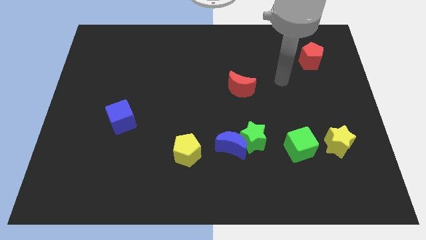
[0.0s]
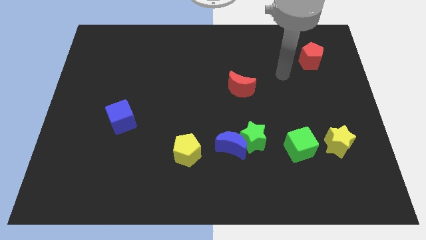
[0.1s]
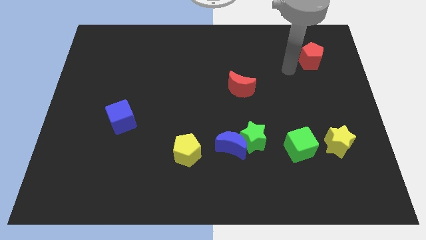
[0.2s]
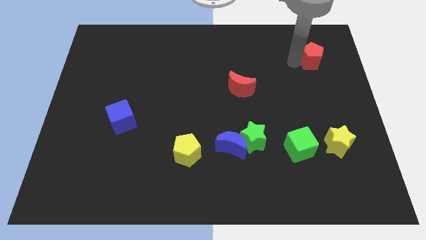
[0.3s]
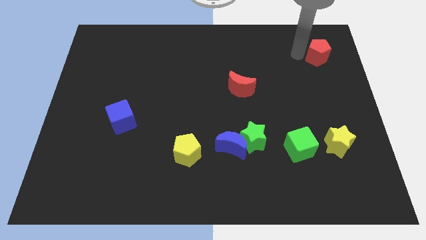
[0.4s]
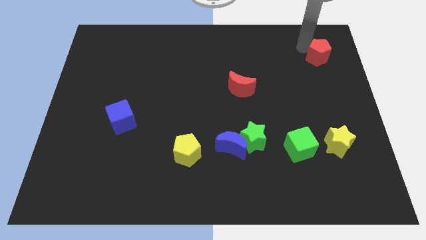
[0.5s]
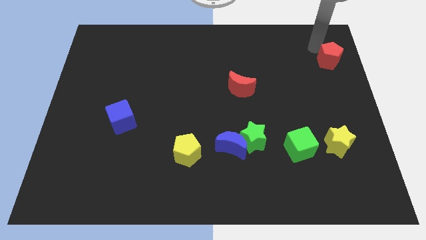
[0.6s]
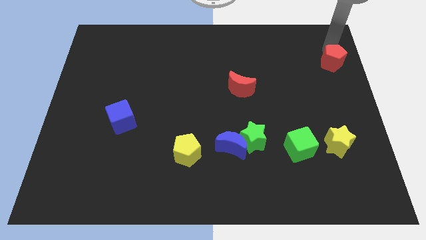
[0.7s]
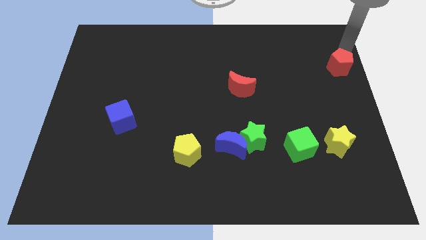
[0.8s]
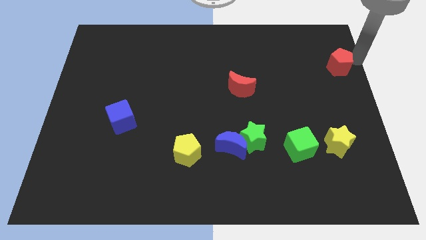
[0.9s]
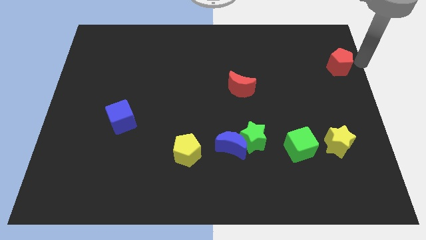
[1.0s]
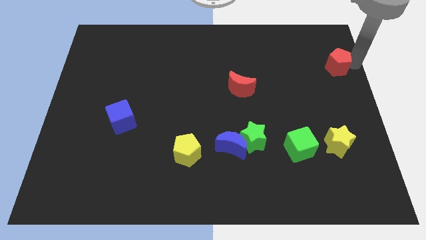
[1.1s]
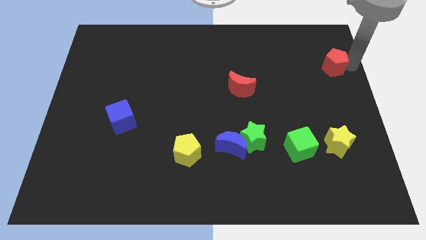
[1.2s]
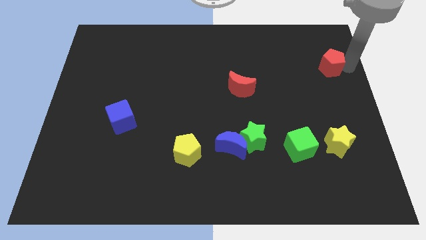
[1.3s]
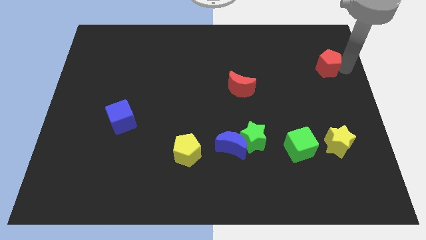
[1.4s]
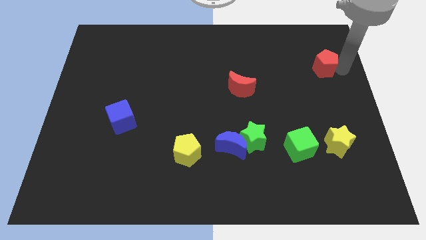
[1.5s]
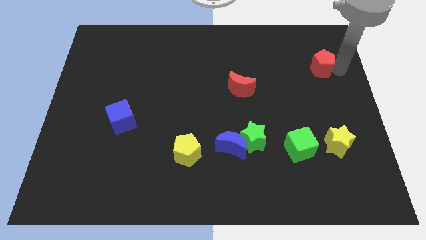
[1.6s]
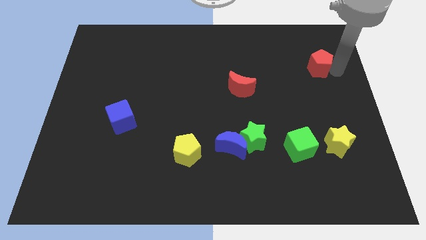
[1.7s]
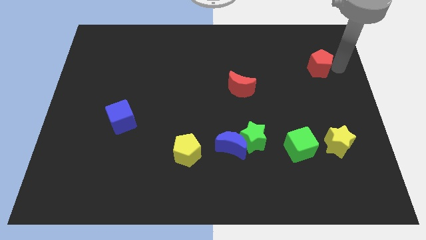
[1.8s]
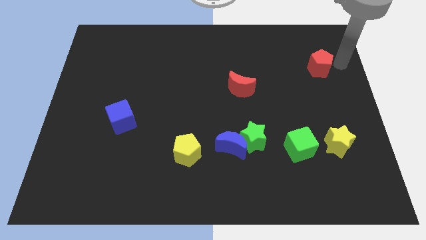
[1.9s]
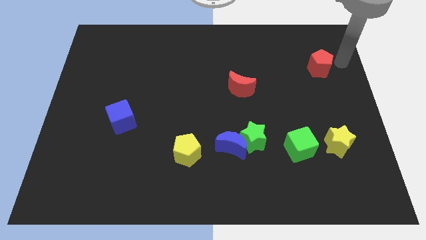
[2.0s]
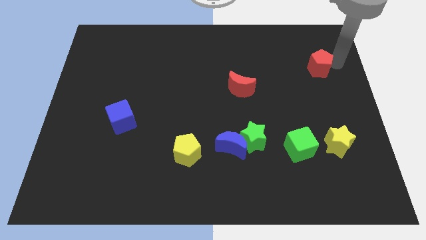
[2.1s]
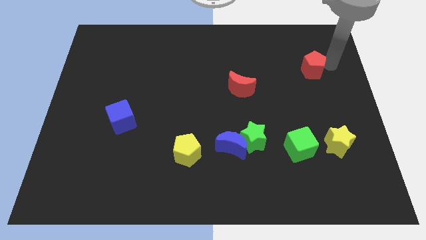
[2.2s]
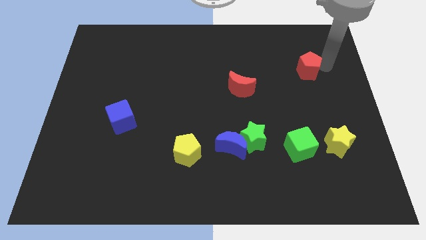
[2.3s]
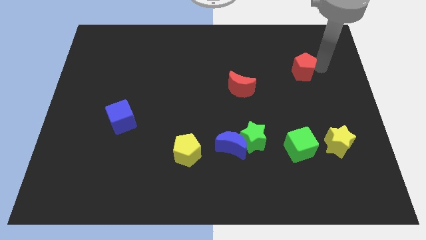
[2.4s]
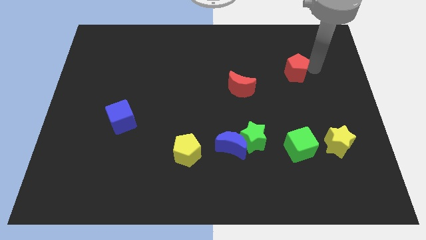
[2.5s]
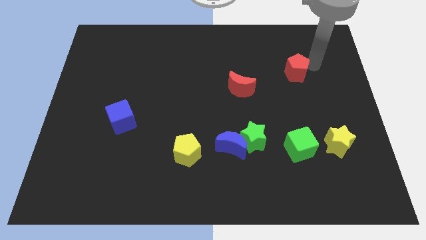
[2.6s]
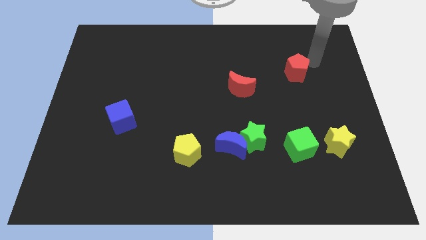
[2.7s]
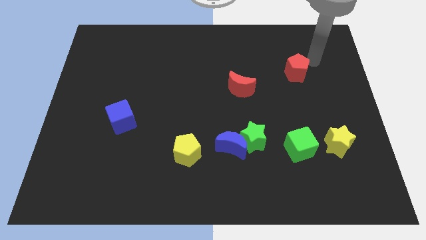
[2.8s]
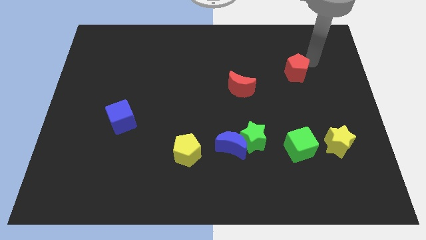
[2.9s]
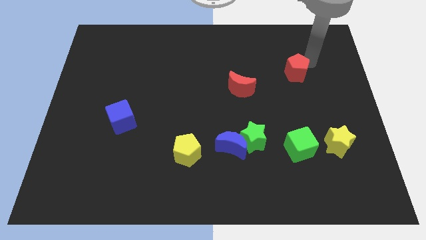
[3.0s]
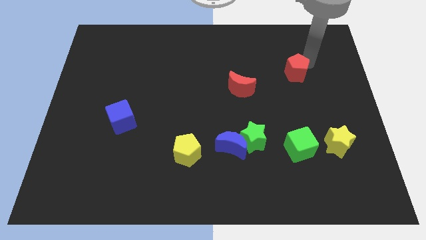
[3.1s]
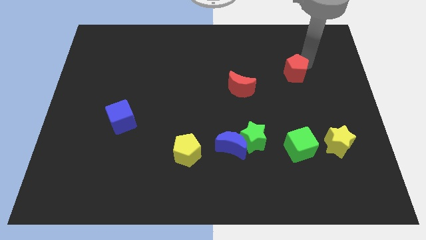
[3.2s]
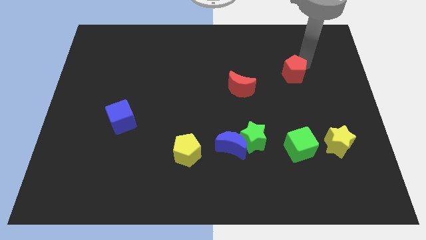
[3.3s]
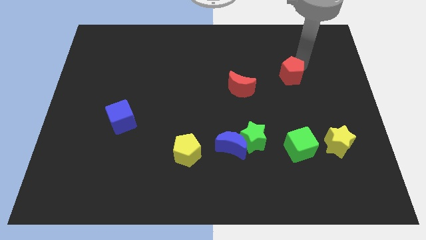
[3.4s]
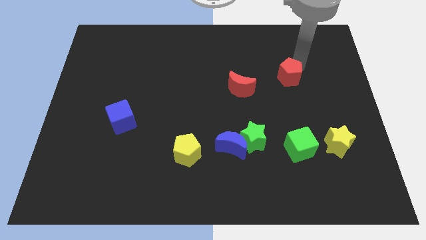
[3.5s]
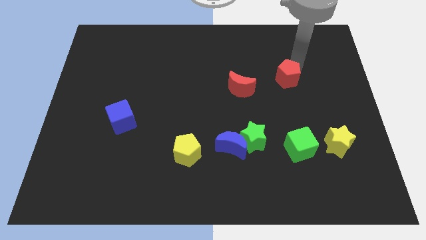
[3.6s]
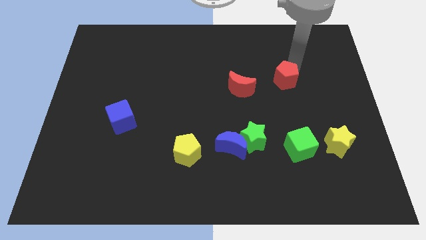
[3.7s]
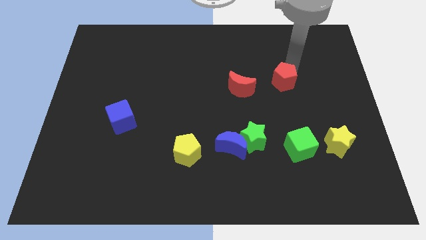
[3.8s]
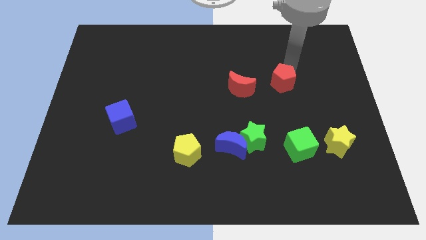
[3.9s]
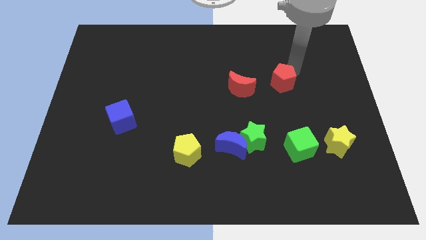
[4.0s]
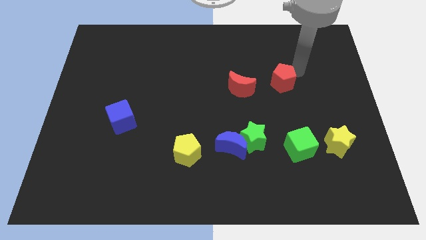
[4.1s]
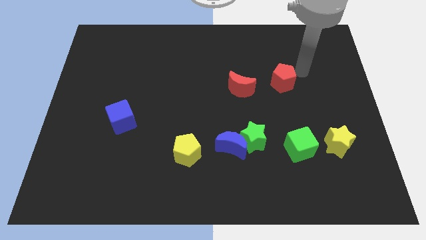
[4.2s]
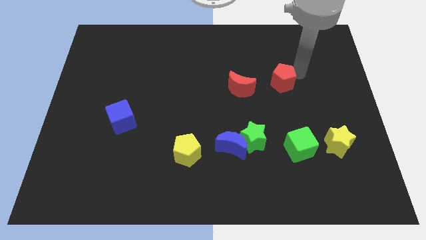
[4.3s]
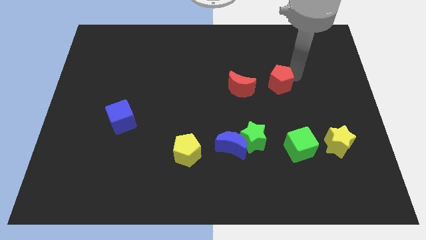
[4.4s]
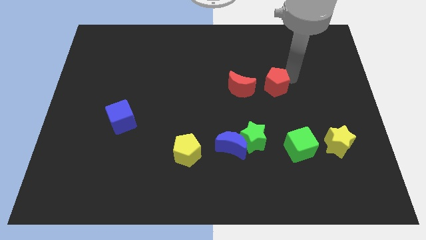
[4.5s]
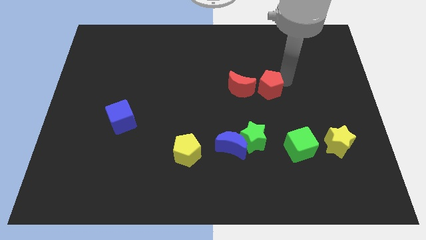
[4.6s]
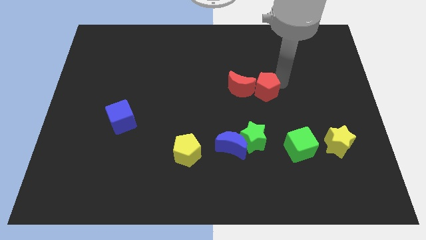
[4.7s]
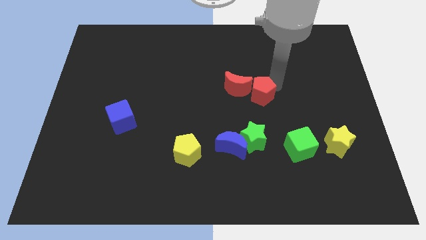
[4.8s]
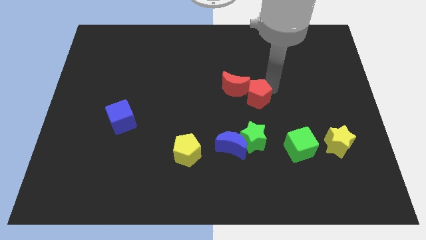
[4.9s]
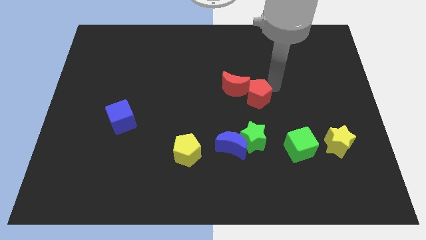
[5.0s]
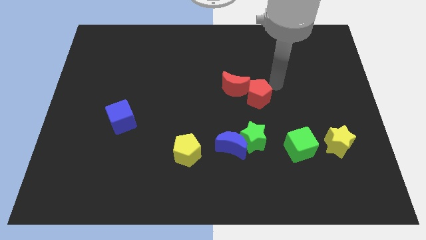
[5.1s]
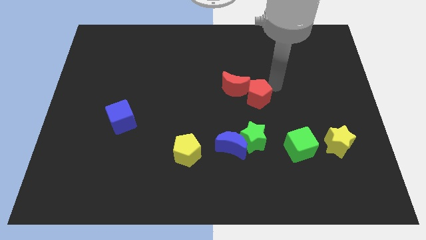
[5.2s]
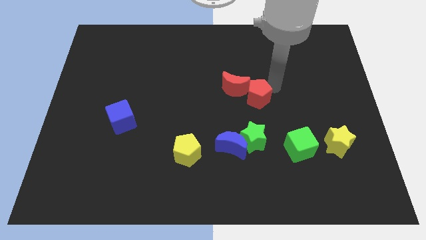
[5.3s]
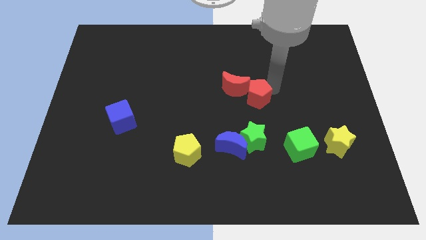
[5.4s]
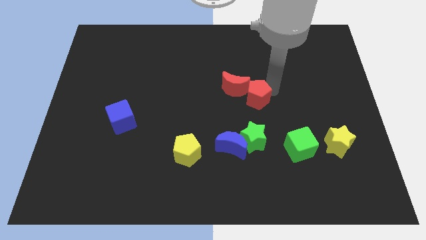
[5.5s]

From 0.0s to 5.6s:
slide the red pentagon diagonally down and to the left

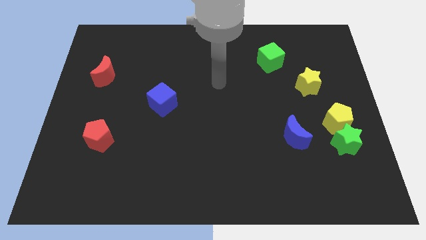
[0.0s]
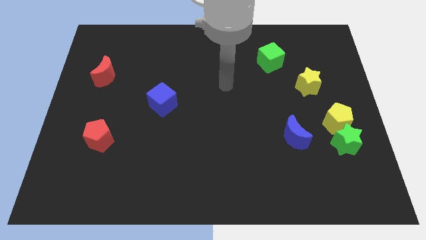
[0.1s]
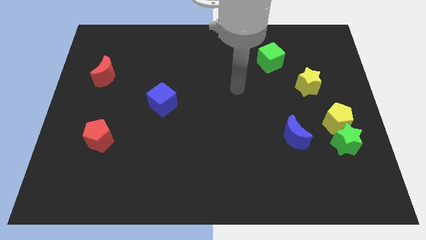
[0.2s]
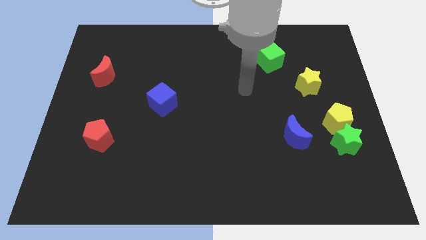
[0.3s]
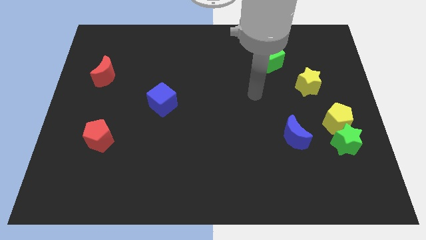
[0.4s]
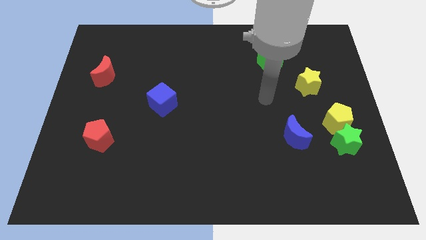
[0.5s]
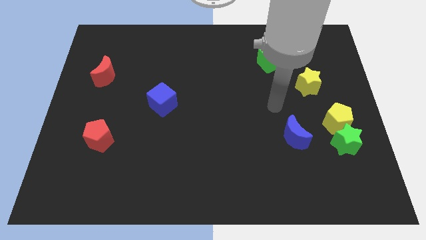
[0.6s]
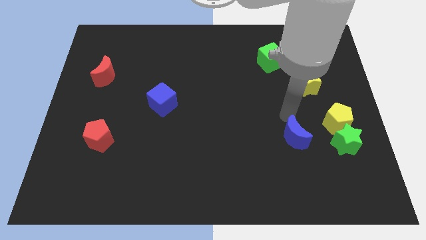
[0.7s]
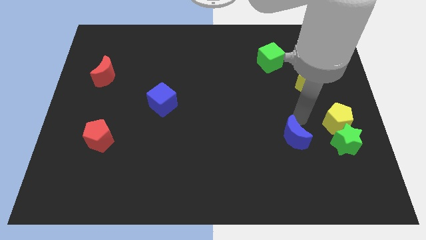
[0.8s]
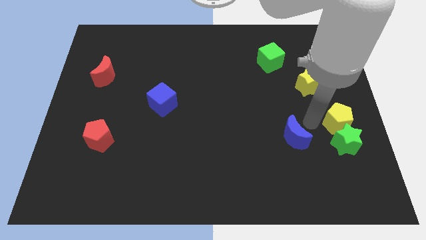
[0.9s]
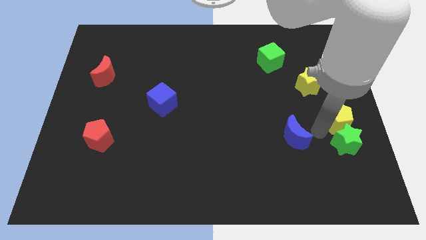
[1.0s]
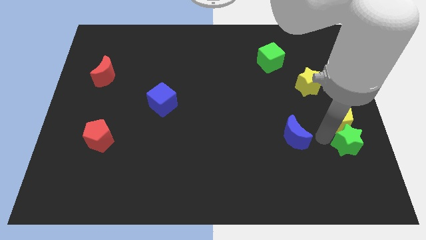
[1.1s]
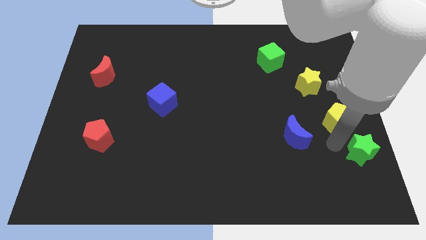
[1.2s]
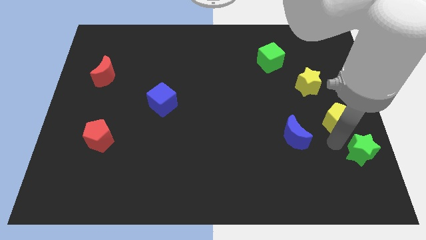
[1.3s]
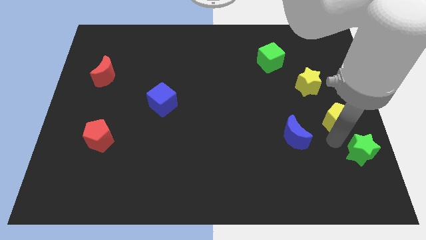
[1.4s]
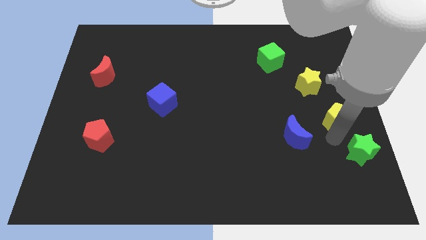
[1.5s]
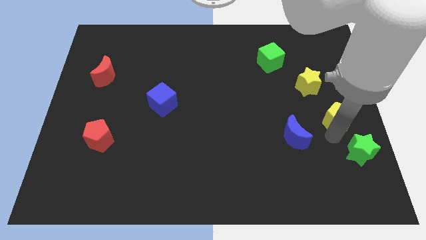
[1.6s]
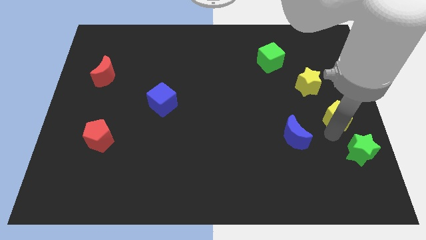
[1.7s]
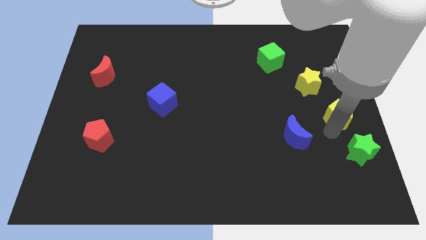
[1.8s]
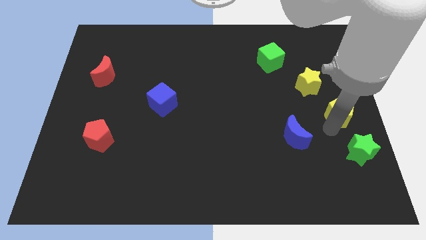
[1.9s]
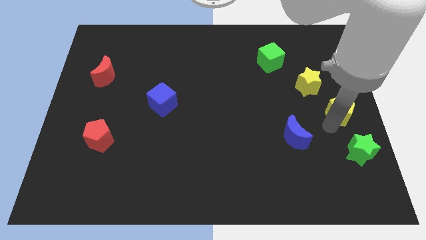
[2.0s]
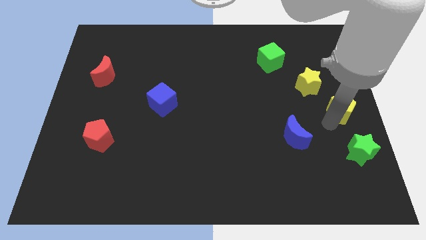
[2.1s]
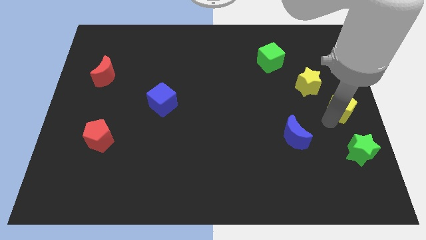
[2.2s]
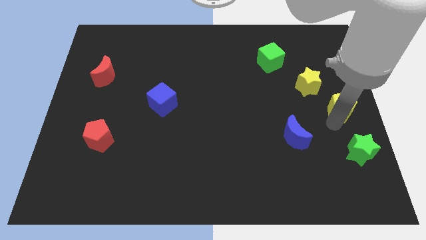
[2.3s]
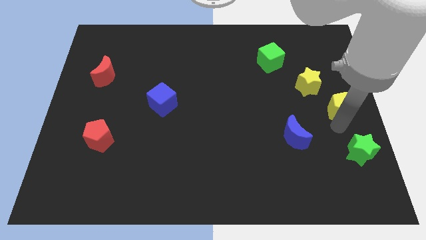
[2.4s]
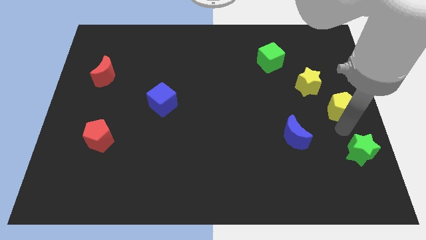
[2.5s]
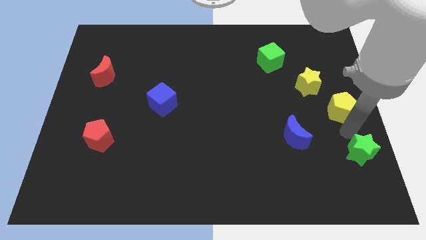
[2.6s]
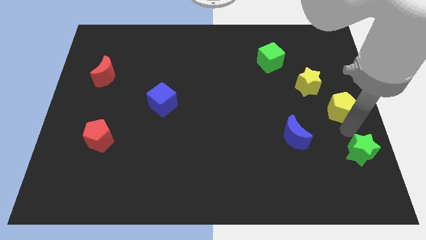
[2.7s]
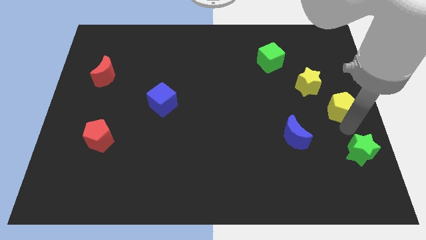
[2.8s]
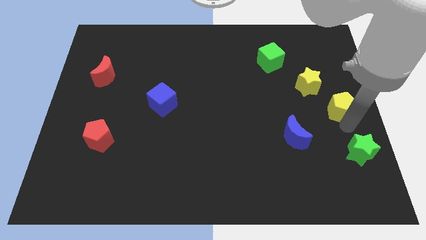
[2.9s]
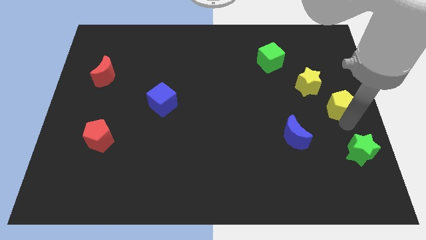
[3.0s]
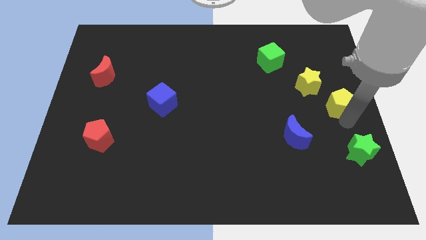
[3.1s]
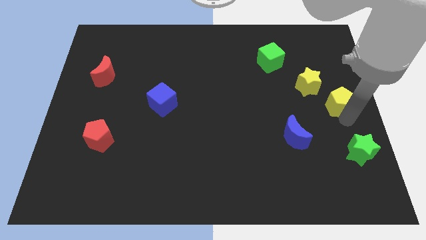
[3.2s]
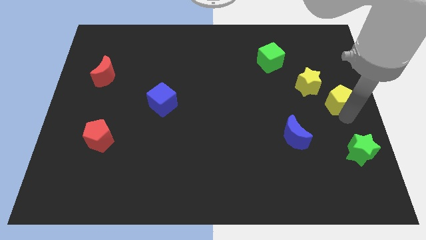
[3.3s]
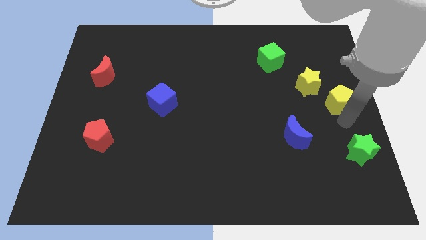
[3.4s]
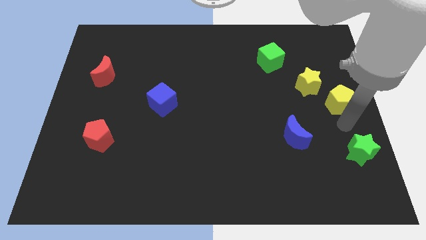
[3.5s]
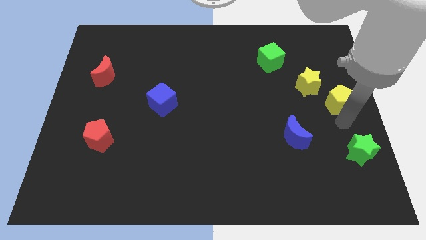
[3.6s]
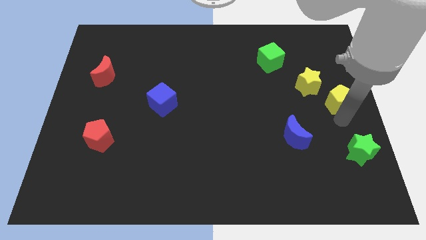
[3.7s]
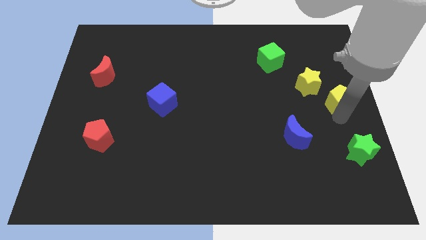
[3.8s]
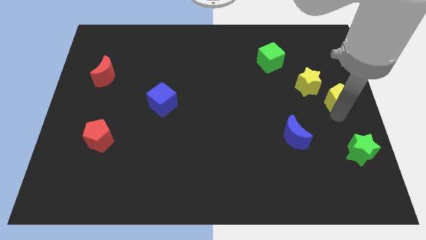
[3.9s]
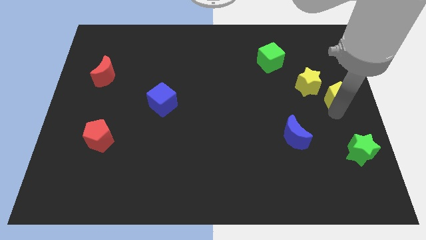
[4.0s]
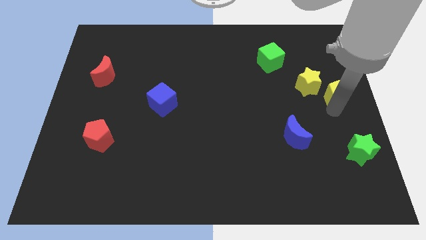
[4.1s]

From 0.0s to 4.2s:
push the yellow pentagon a bit upwards
